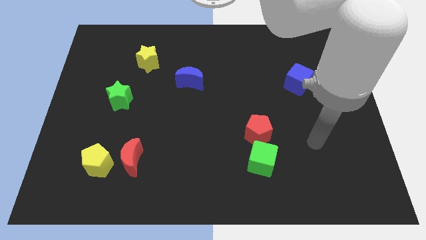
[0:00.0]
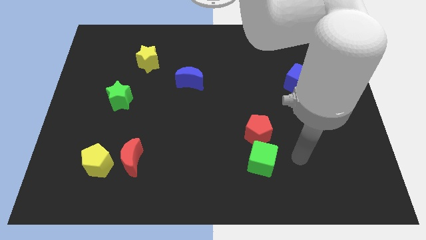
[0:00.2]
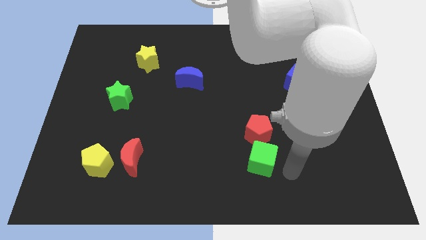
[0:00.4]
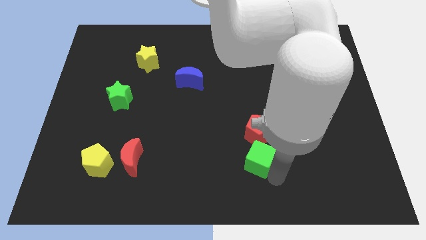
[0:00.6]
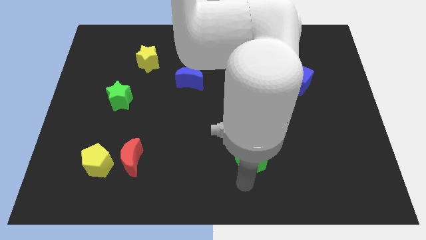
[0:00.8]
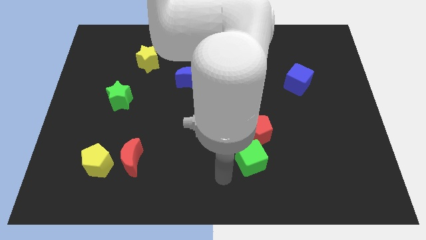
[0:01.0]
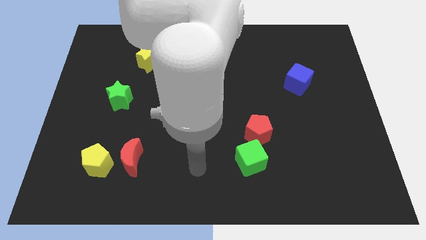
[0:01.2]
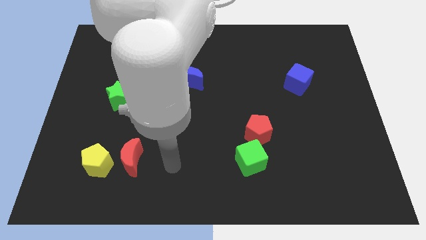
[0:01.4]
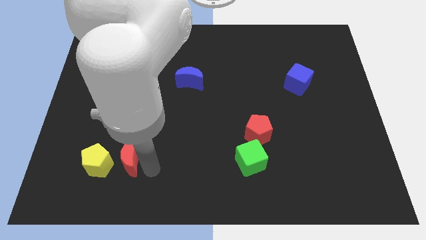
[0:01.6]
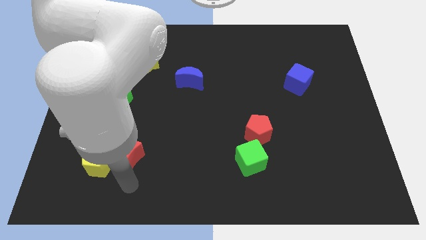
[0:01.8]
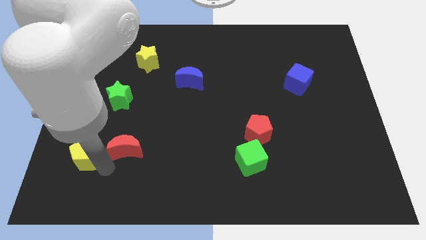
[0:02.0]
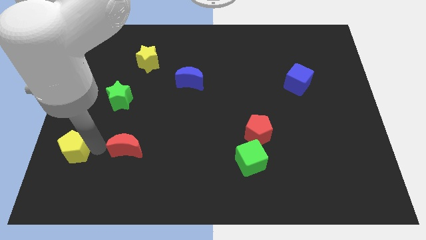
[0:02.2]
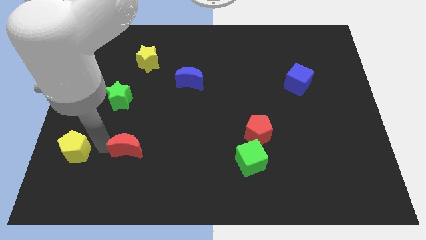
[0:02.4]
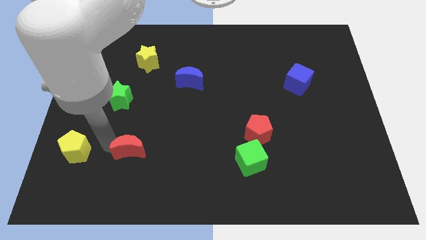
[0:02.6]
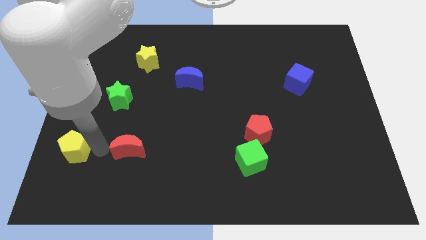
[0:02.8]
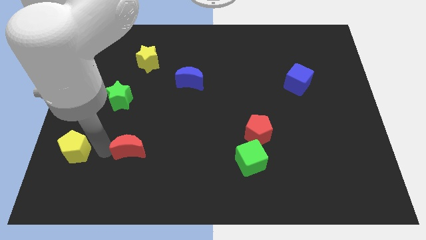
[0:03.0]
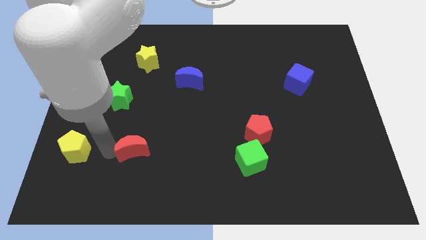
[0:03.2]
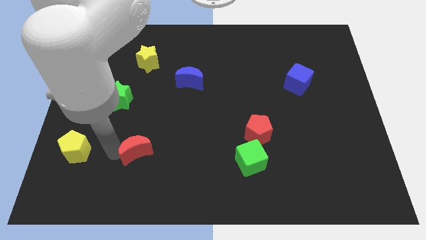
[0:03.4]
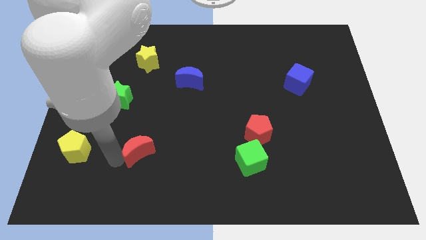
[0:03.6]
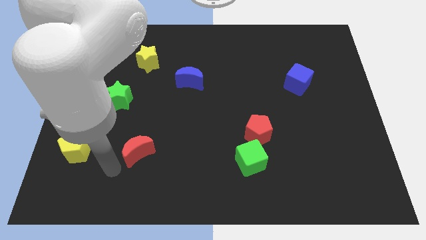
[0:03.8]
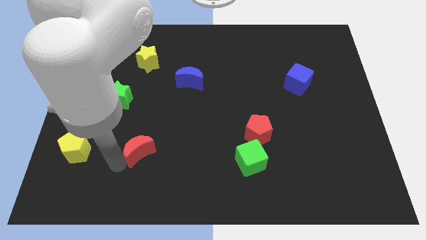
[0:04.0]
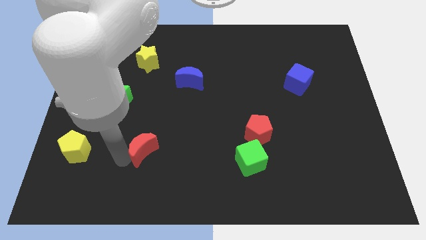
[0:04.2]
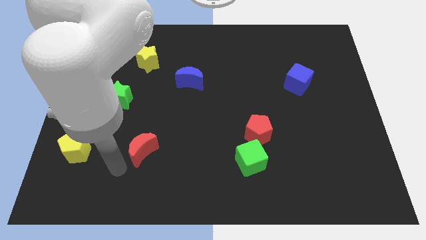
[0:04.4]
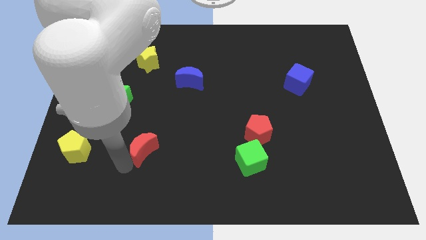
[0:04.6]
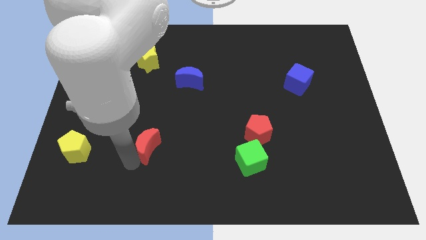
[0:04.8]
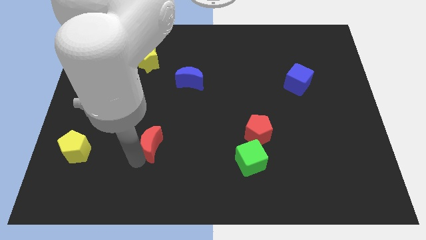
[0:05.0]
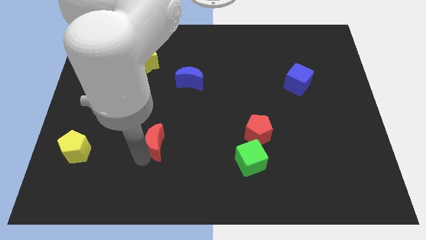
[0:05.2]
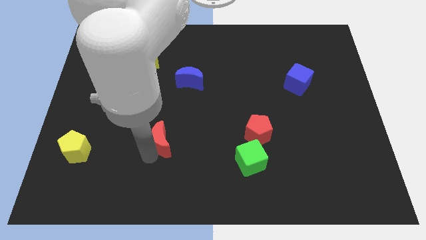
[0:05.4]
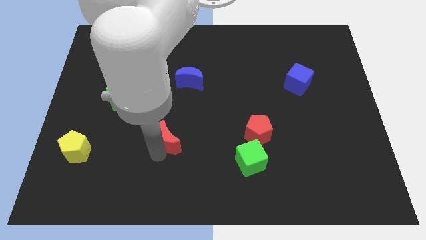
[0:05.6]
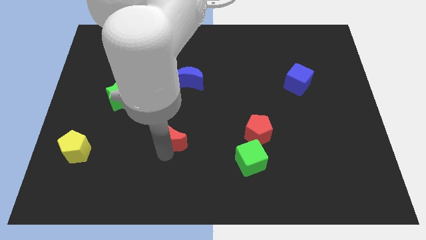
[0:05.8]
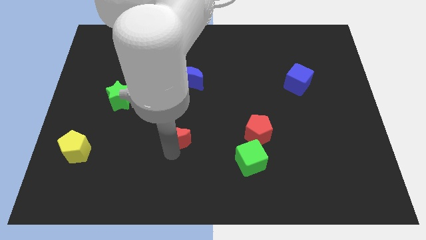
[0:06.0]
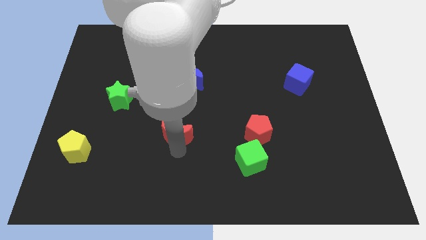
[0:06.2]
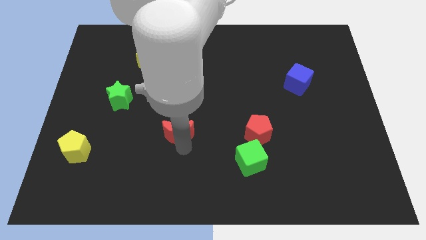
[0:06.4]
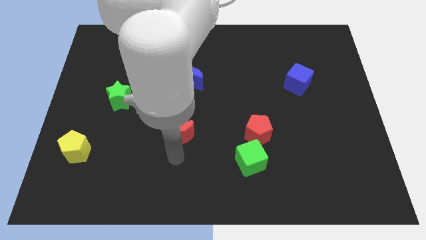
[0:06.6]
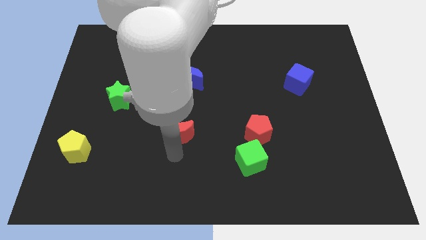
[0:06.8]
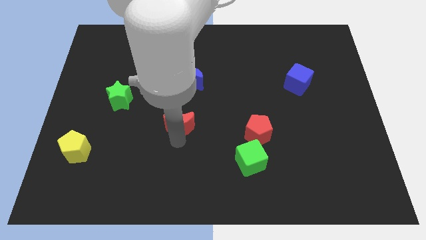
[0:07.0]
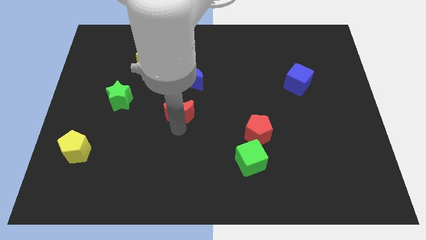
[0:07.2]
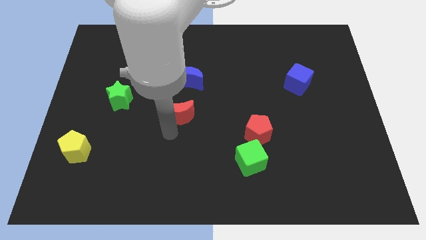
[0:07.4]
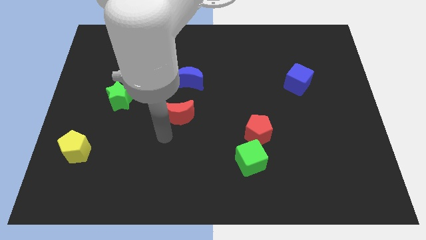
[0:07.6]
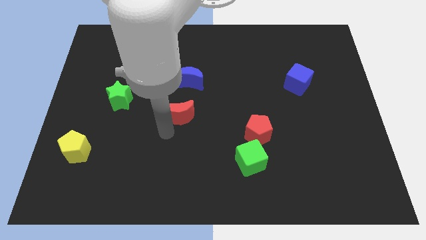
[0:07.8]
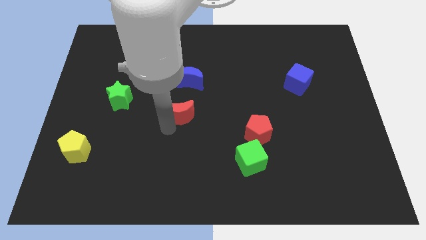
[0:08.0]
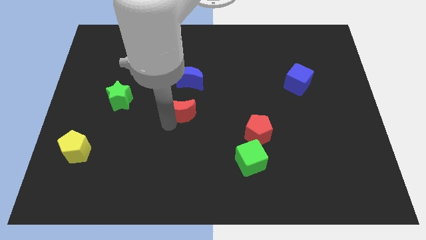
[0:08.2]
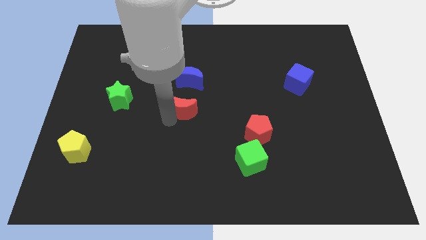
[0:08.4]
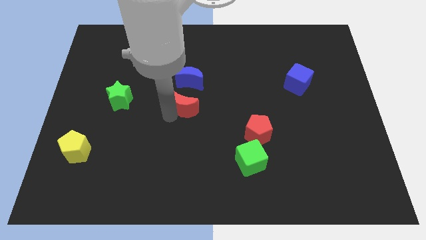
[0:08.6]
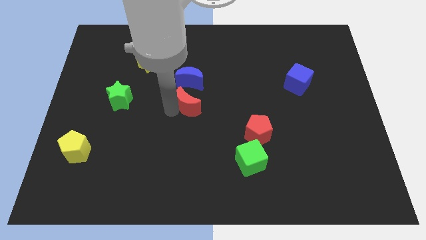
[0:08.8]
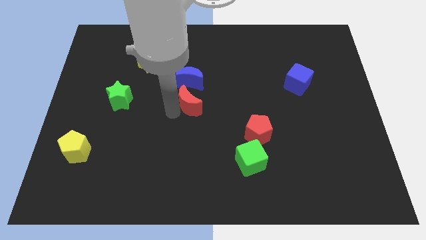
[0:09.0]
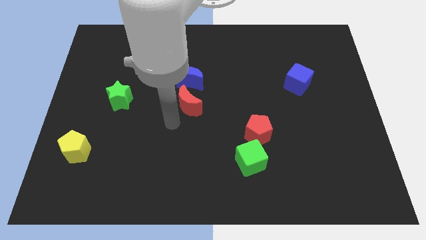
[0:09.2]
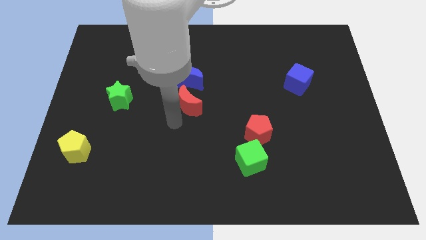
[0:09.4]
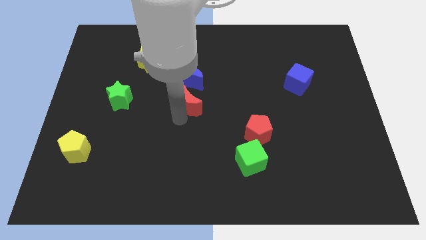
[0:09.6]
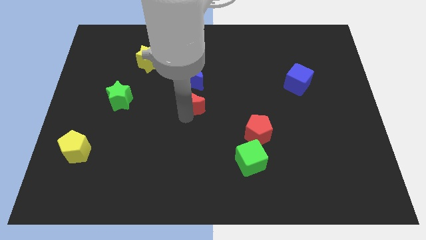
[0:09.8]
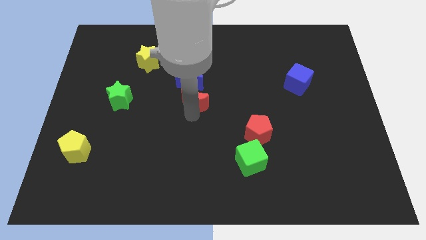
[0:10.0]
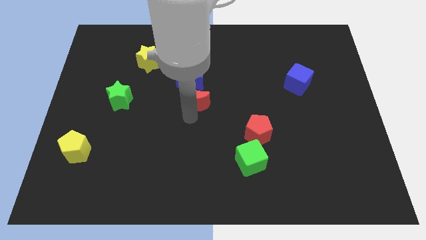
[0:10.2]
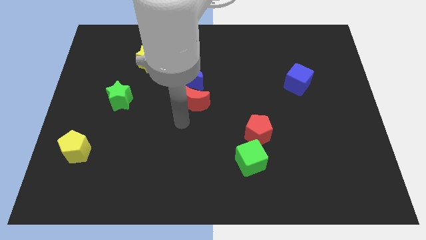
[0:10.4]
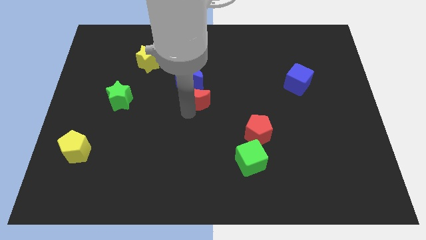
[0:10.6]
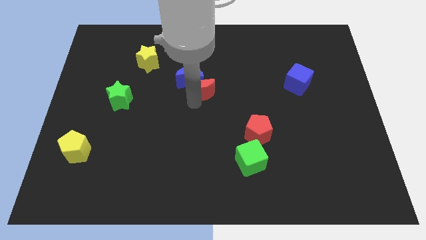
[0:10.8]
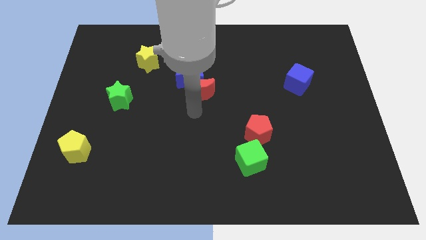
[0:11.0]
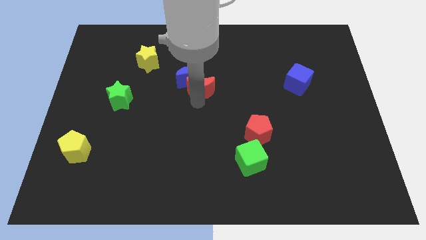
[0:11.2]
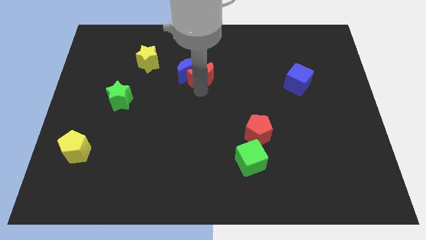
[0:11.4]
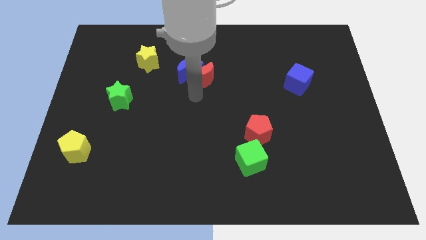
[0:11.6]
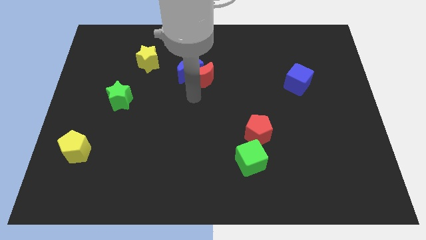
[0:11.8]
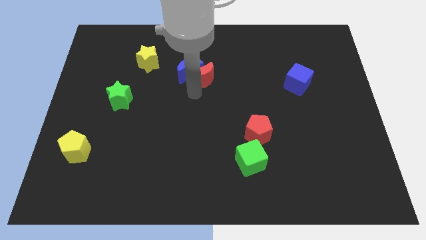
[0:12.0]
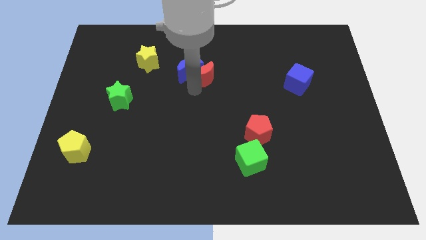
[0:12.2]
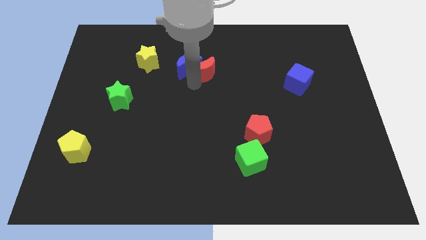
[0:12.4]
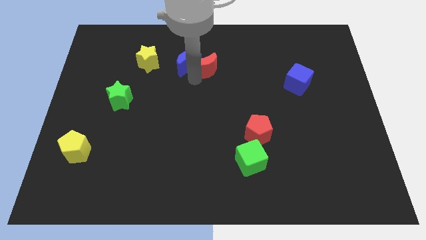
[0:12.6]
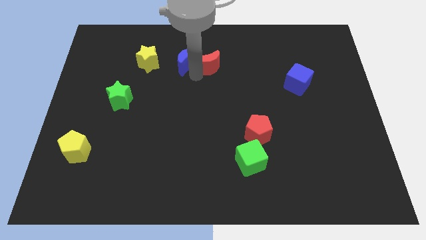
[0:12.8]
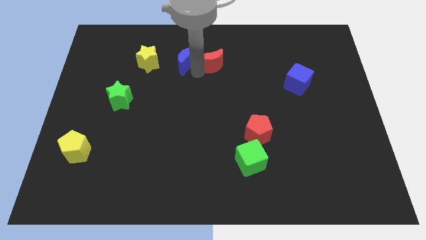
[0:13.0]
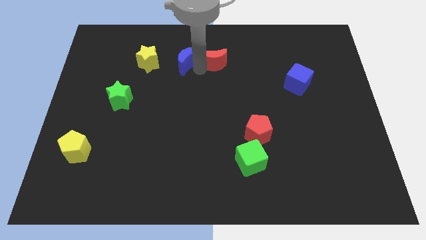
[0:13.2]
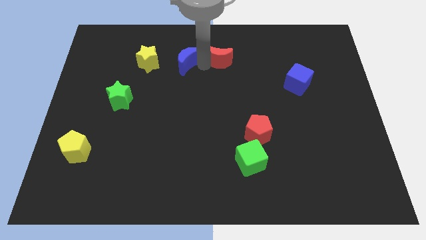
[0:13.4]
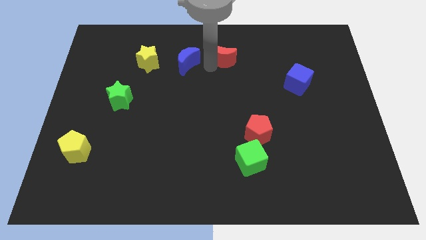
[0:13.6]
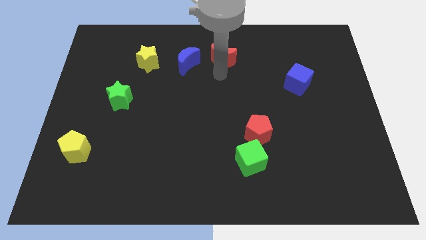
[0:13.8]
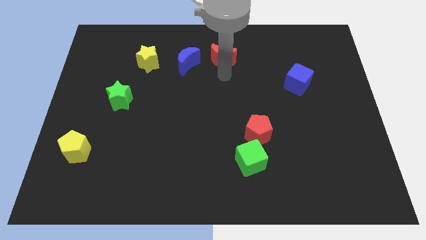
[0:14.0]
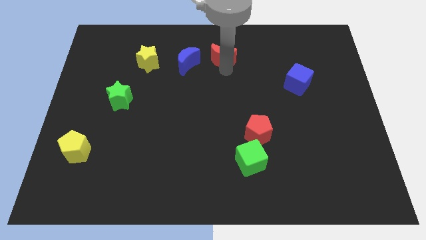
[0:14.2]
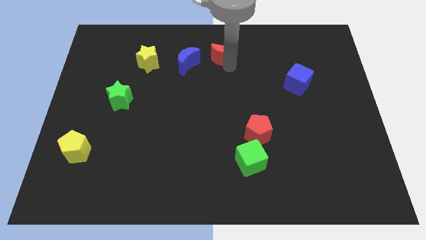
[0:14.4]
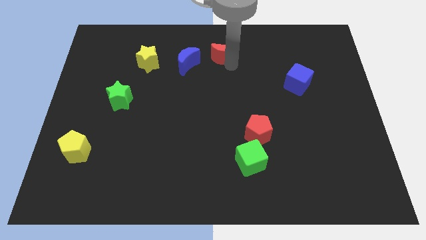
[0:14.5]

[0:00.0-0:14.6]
move the red moon to the top side
